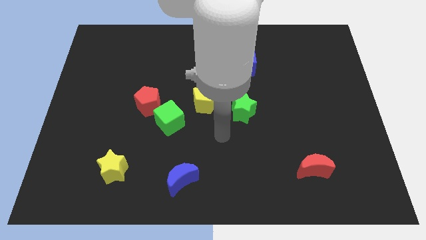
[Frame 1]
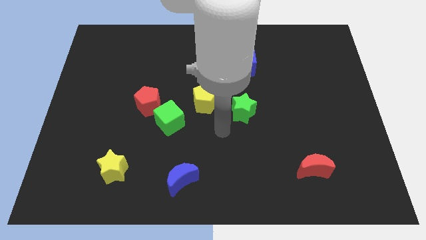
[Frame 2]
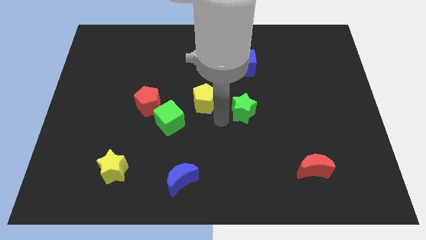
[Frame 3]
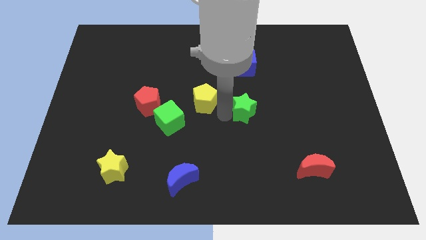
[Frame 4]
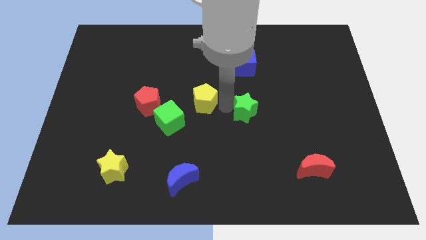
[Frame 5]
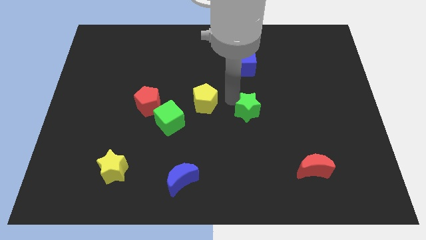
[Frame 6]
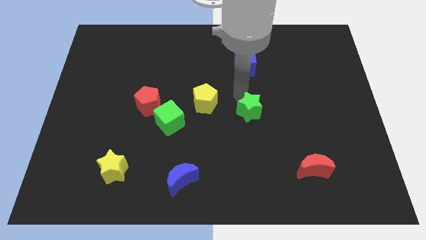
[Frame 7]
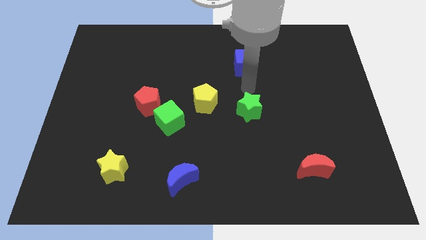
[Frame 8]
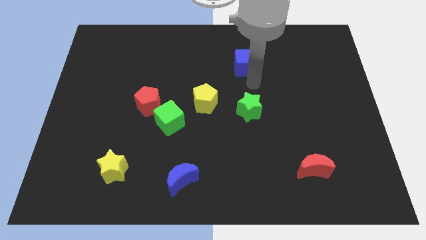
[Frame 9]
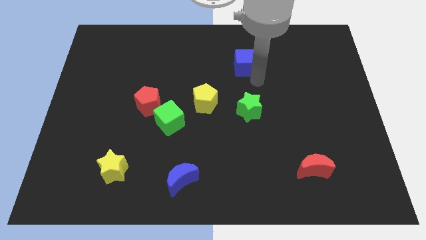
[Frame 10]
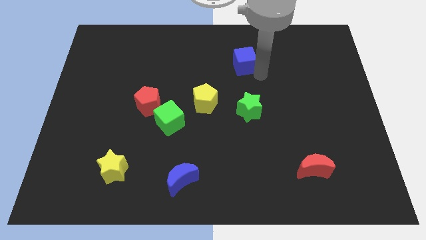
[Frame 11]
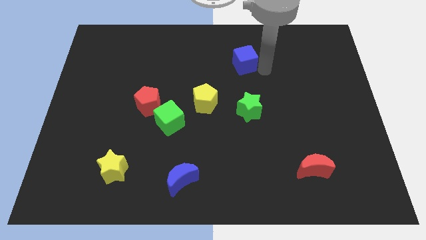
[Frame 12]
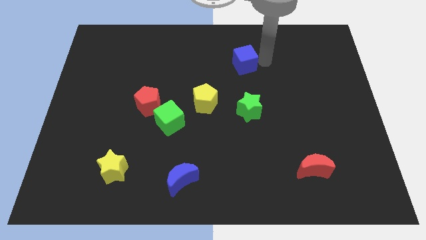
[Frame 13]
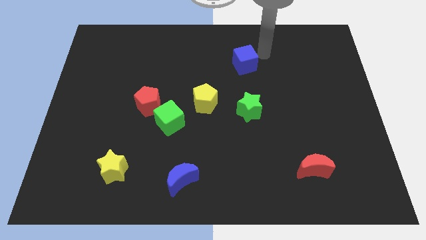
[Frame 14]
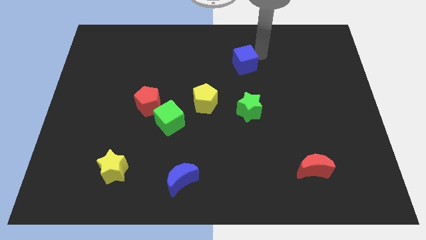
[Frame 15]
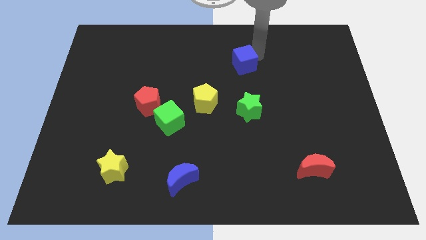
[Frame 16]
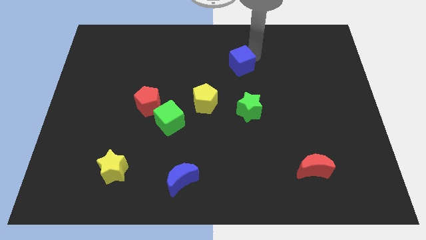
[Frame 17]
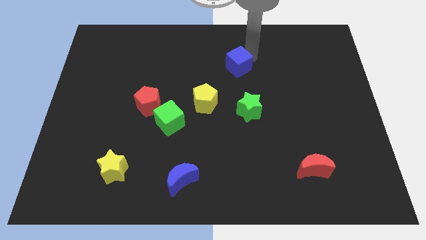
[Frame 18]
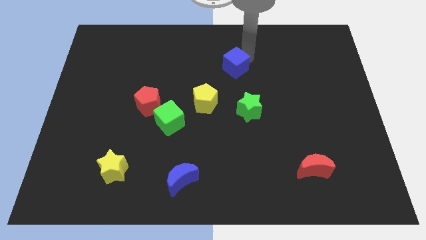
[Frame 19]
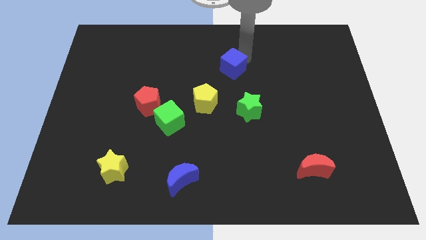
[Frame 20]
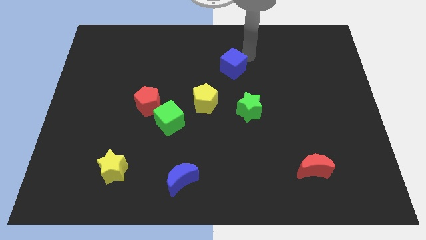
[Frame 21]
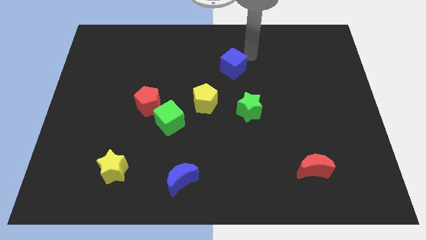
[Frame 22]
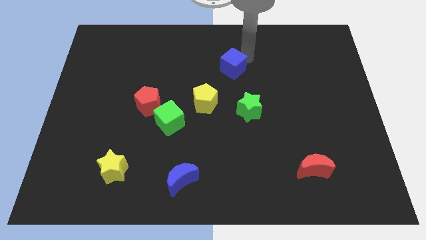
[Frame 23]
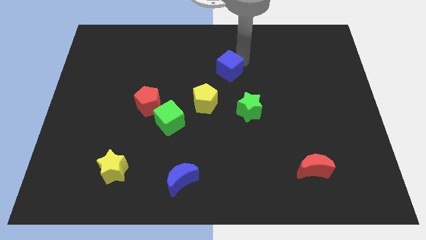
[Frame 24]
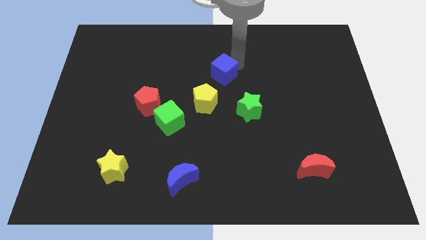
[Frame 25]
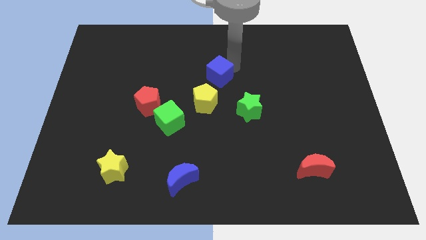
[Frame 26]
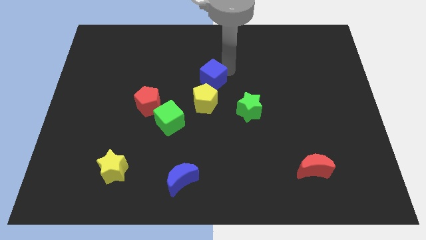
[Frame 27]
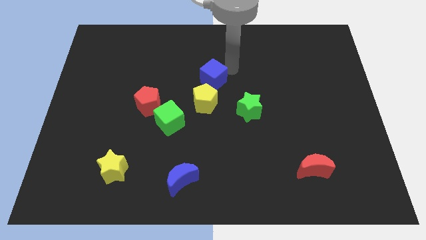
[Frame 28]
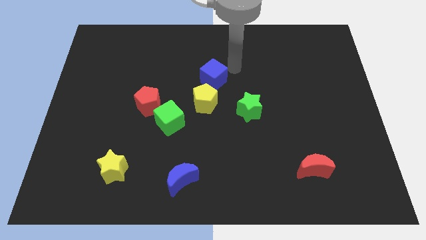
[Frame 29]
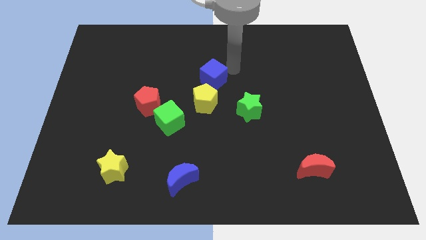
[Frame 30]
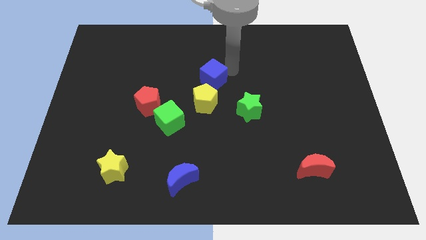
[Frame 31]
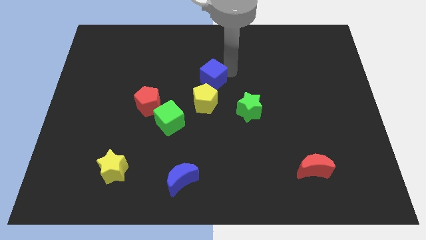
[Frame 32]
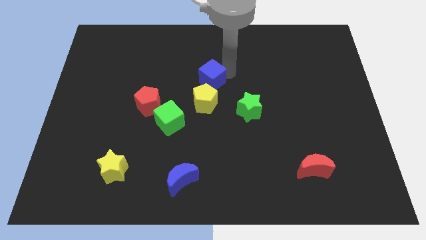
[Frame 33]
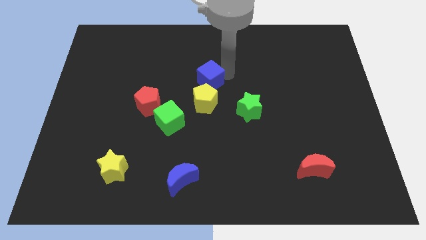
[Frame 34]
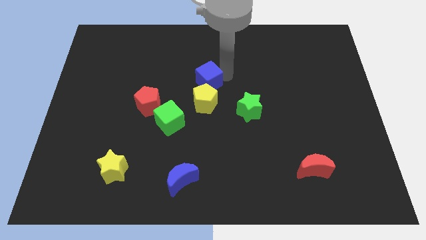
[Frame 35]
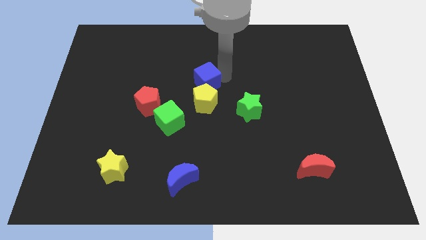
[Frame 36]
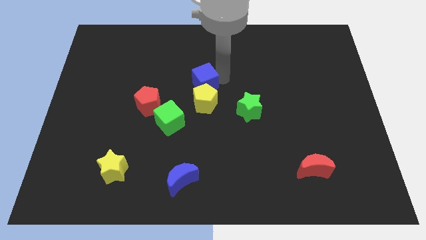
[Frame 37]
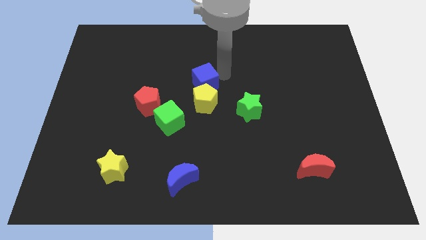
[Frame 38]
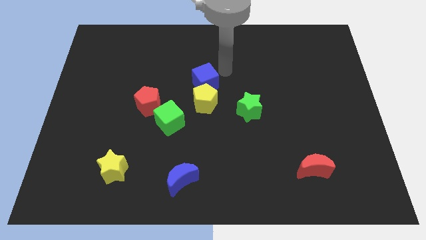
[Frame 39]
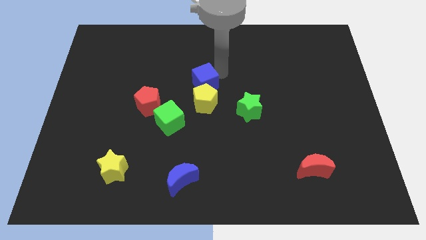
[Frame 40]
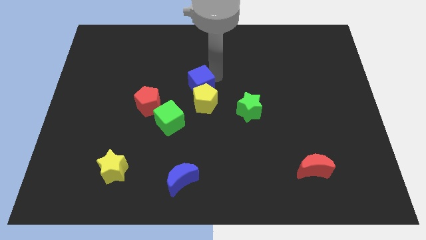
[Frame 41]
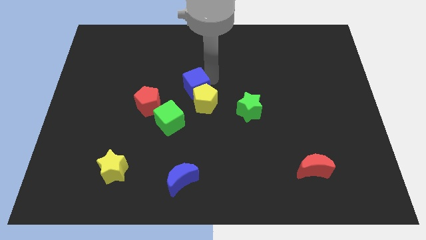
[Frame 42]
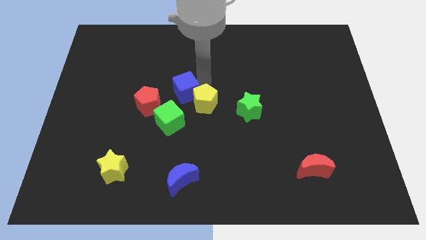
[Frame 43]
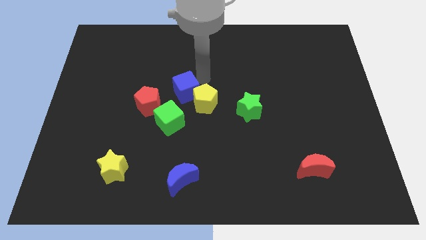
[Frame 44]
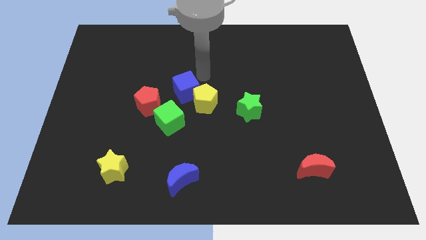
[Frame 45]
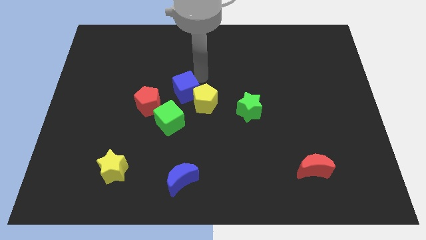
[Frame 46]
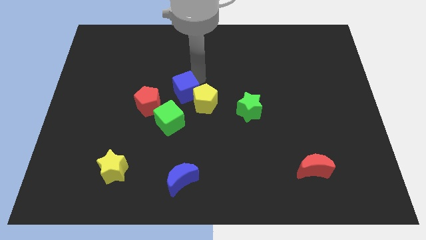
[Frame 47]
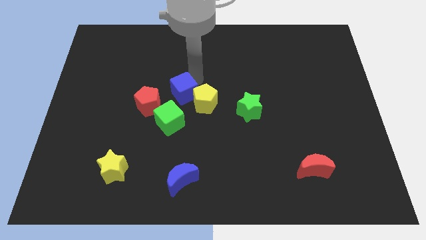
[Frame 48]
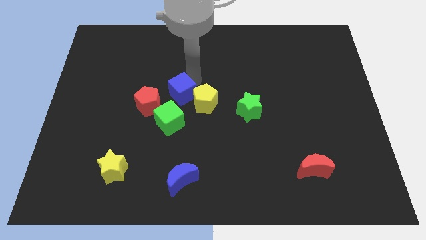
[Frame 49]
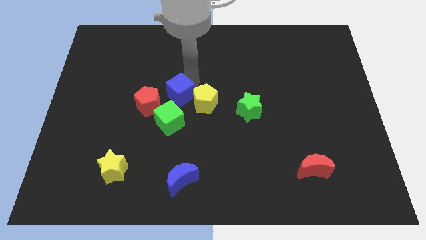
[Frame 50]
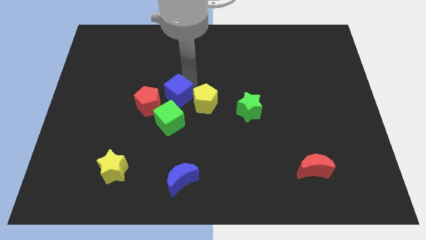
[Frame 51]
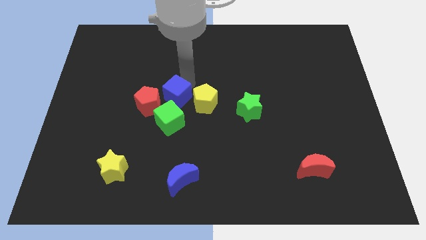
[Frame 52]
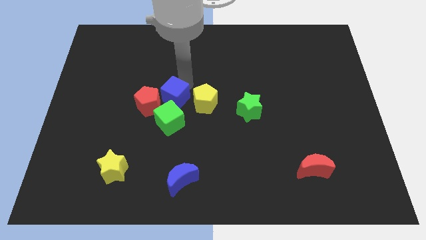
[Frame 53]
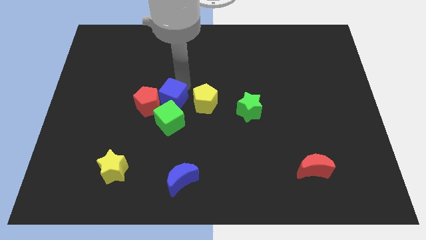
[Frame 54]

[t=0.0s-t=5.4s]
slide the blue cube towards the red pentagon

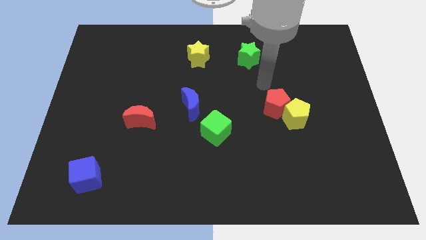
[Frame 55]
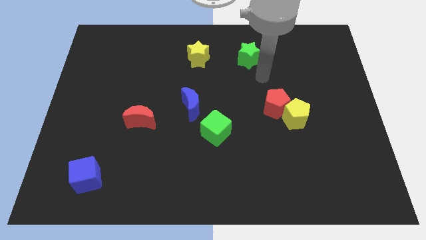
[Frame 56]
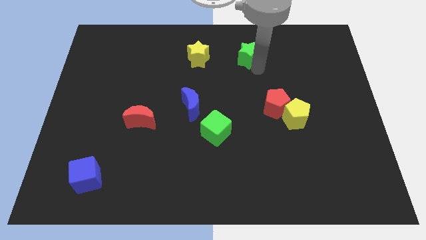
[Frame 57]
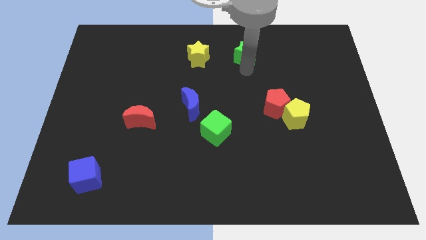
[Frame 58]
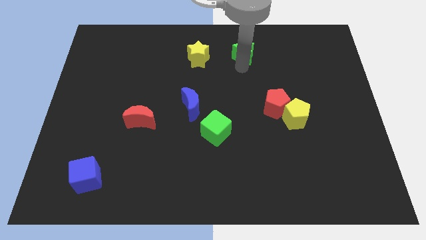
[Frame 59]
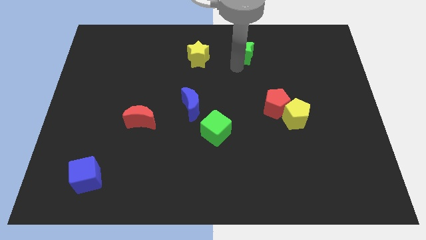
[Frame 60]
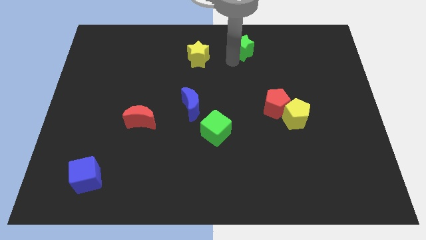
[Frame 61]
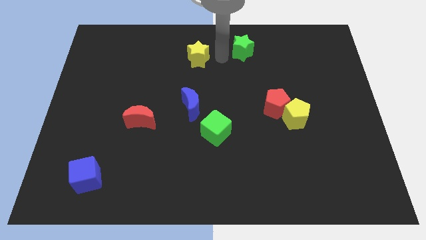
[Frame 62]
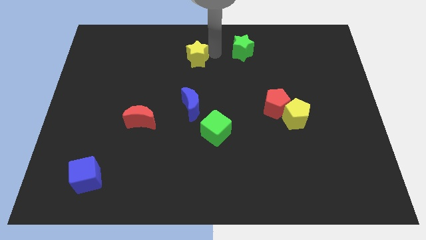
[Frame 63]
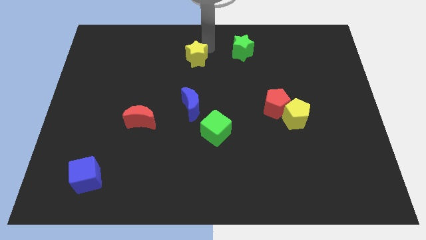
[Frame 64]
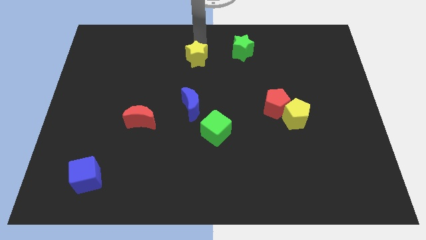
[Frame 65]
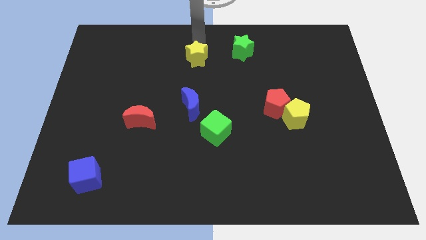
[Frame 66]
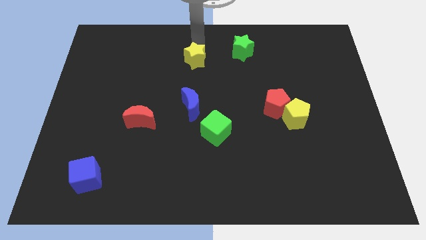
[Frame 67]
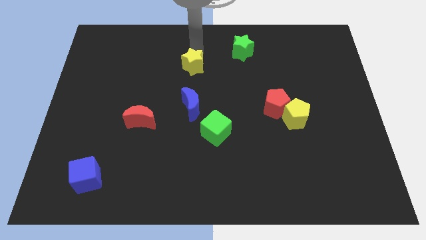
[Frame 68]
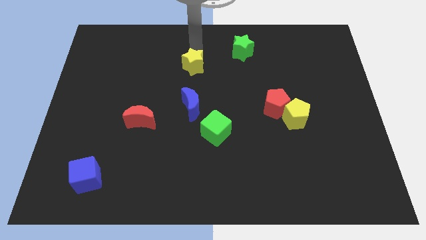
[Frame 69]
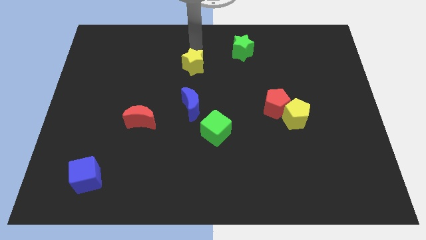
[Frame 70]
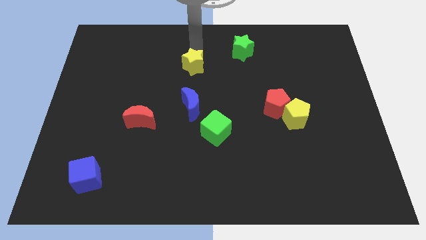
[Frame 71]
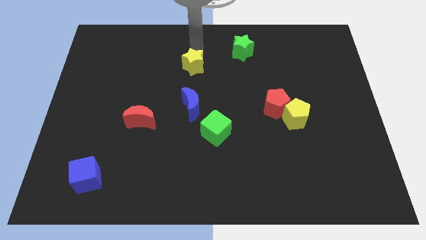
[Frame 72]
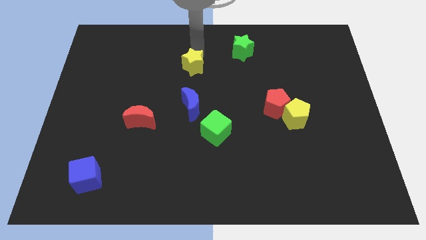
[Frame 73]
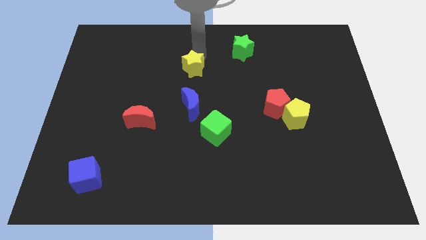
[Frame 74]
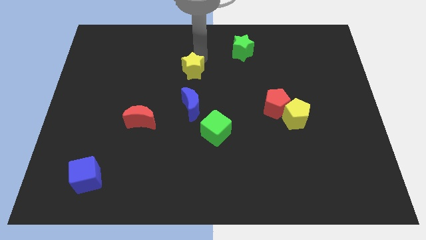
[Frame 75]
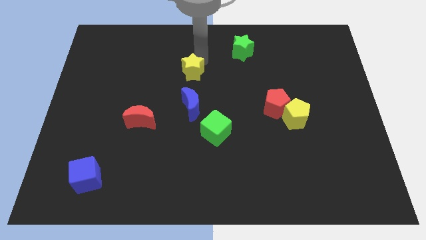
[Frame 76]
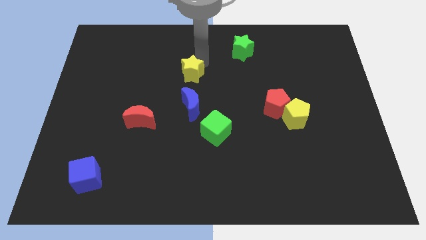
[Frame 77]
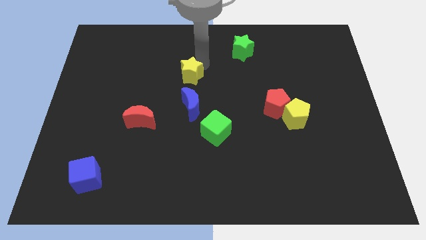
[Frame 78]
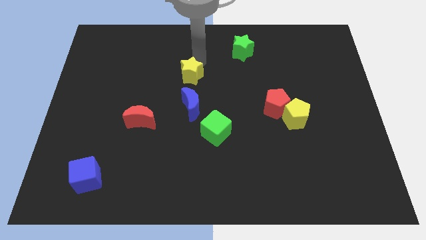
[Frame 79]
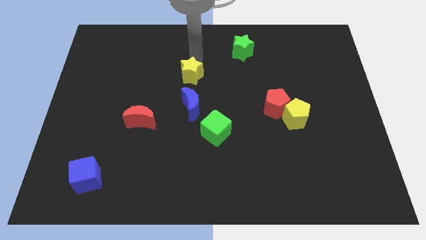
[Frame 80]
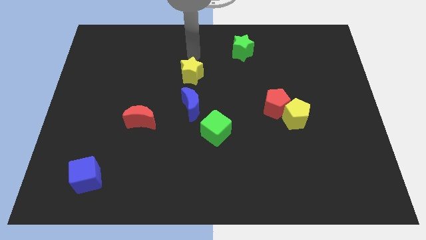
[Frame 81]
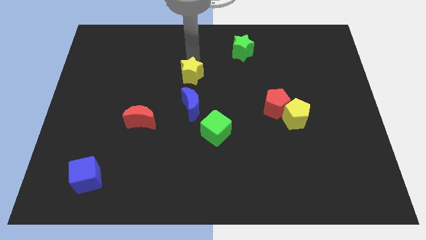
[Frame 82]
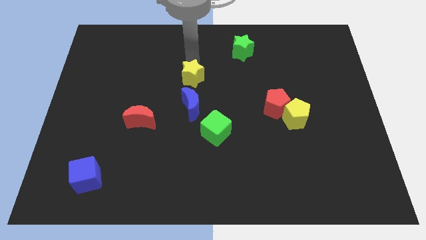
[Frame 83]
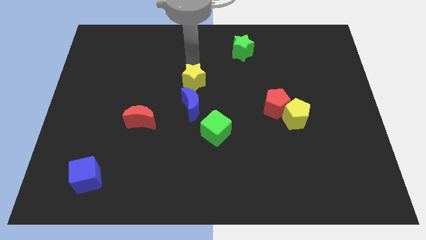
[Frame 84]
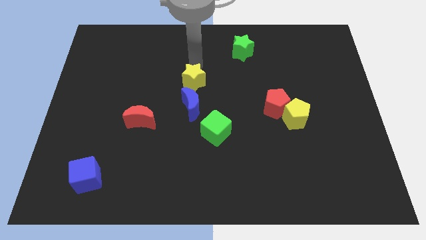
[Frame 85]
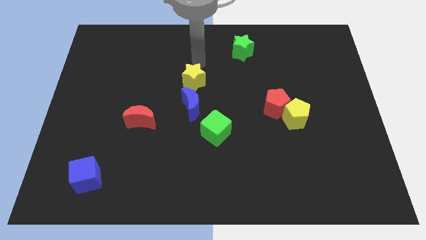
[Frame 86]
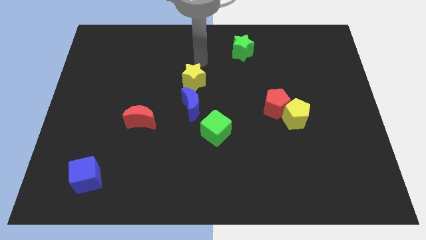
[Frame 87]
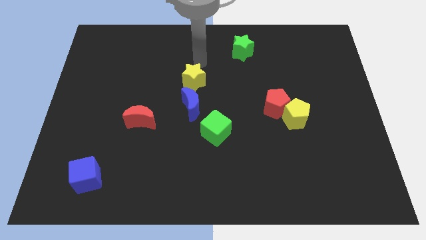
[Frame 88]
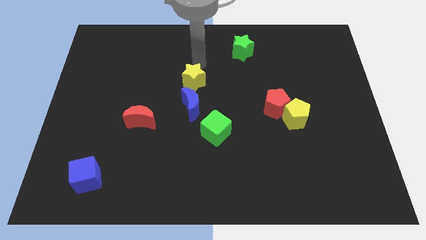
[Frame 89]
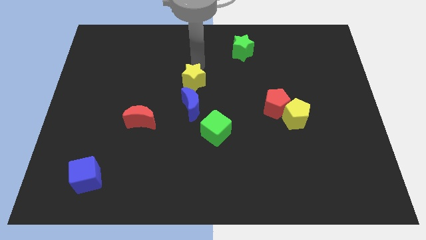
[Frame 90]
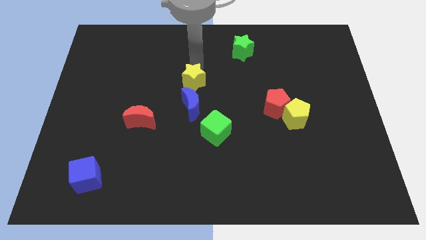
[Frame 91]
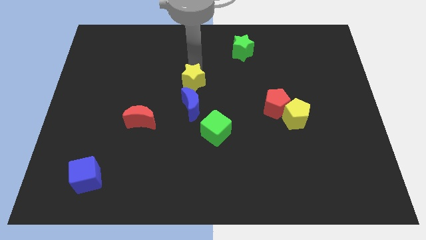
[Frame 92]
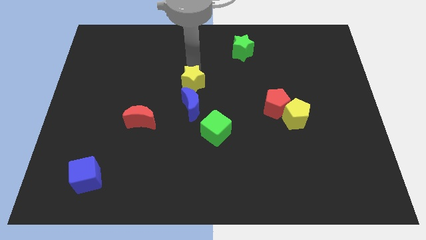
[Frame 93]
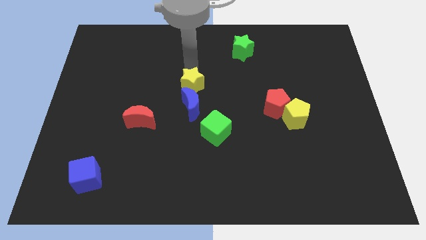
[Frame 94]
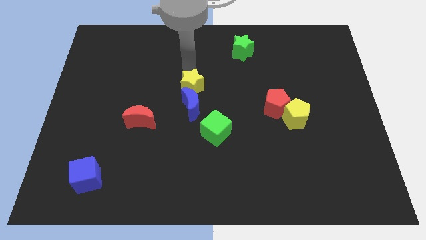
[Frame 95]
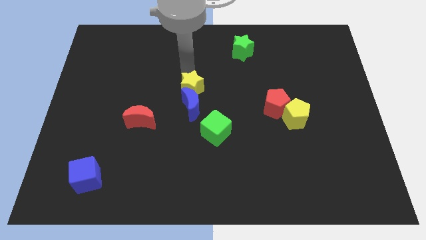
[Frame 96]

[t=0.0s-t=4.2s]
move the yellow star next to the blue moon
